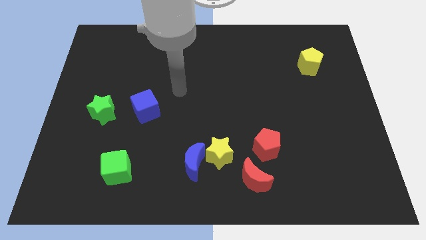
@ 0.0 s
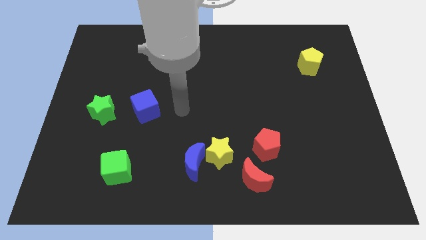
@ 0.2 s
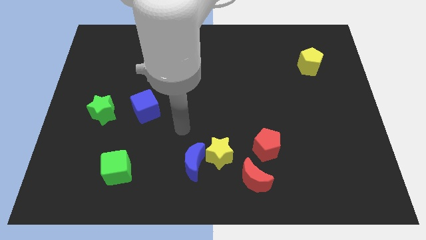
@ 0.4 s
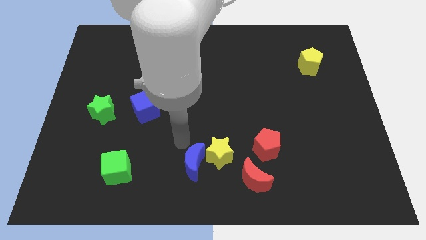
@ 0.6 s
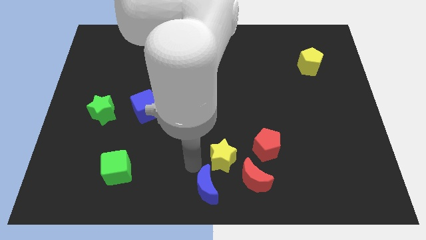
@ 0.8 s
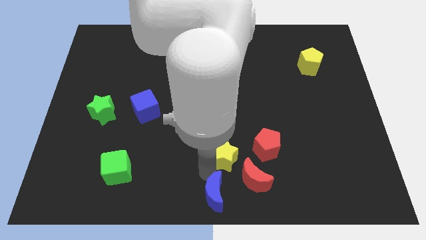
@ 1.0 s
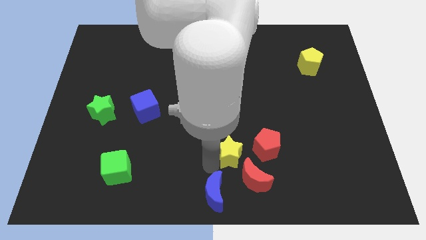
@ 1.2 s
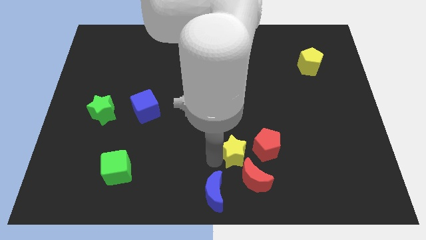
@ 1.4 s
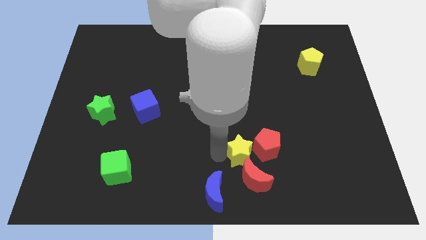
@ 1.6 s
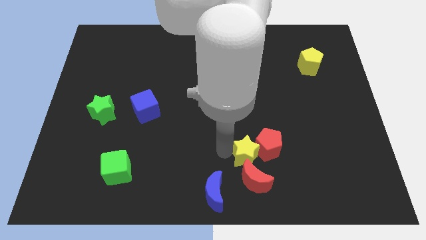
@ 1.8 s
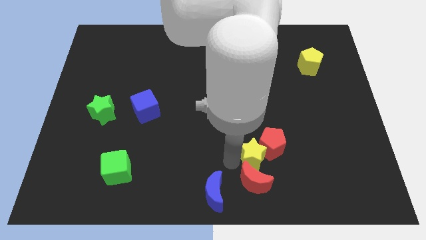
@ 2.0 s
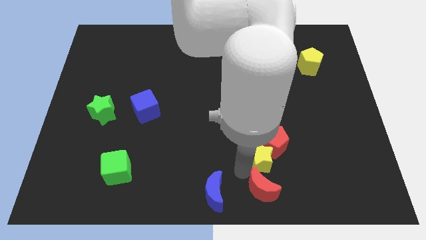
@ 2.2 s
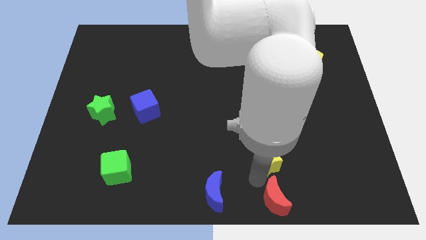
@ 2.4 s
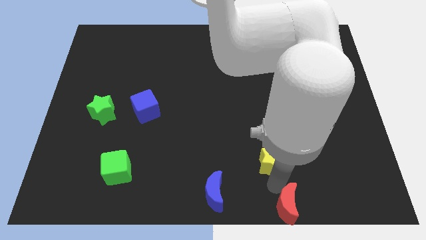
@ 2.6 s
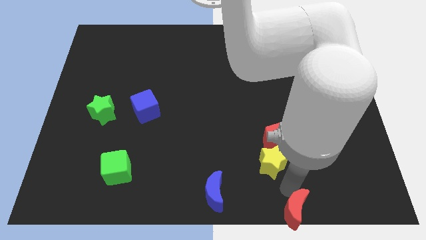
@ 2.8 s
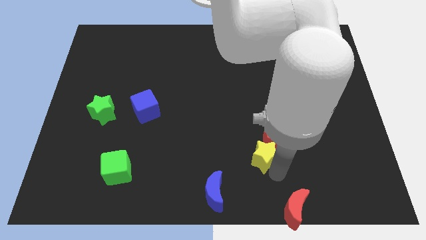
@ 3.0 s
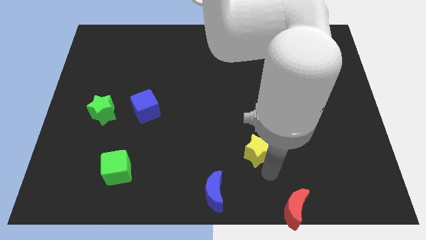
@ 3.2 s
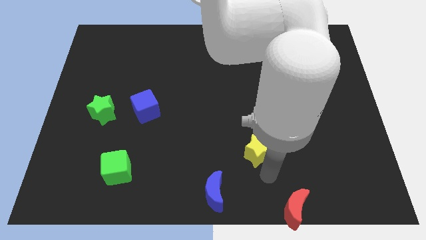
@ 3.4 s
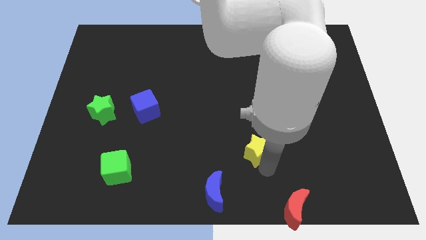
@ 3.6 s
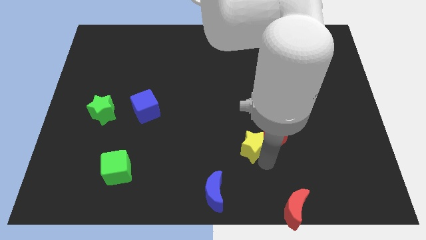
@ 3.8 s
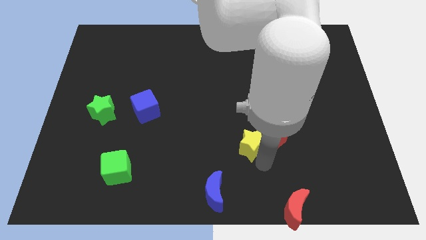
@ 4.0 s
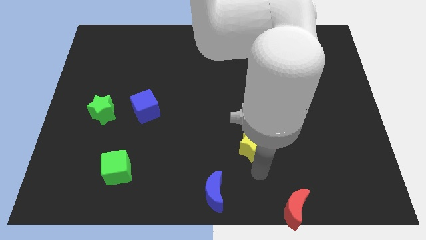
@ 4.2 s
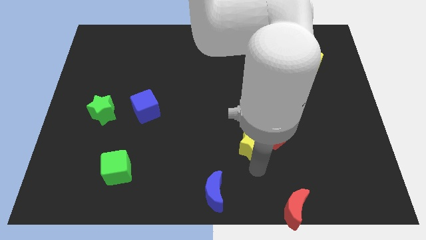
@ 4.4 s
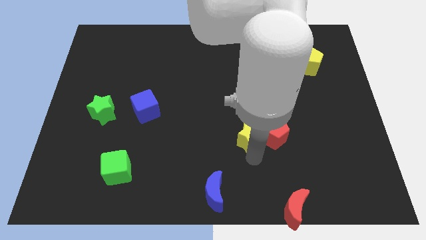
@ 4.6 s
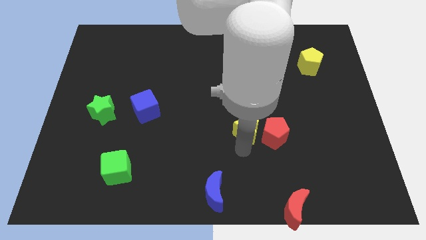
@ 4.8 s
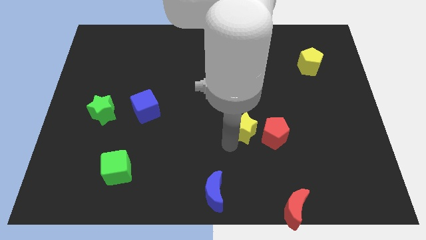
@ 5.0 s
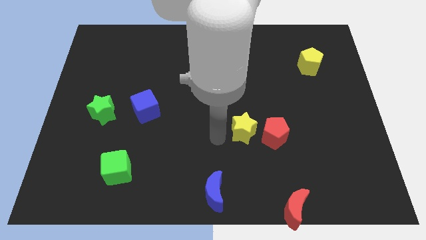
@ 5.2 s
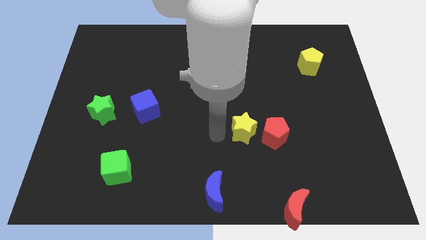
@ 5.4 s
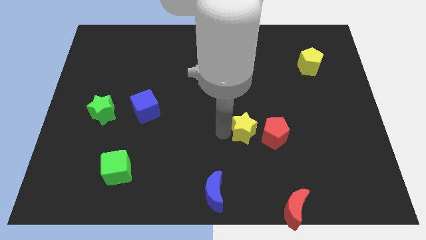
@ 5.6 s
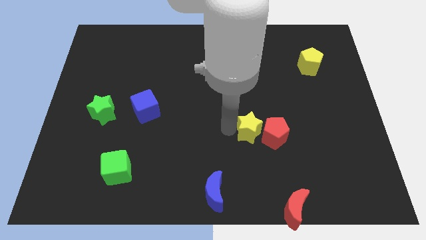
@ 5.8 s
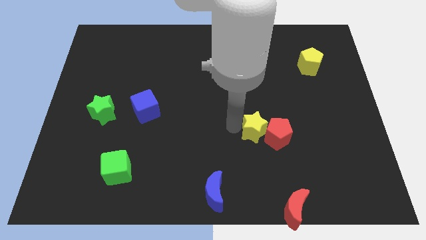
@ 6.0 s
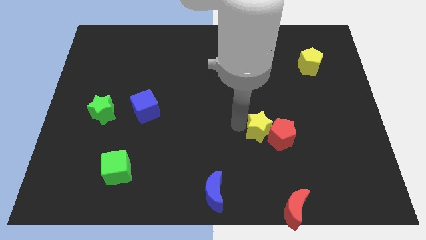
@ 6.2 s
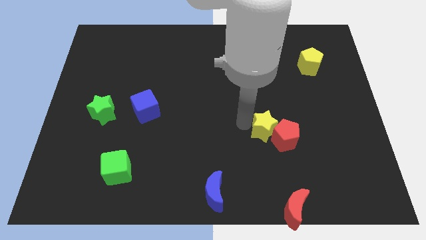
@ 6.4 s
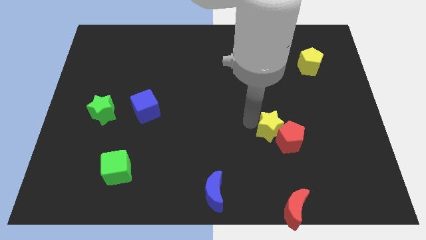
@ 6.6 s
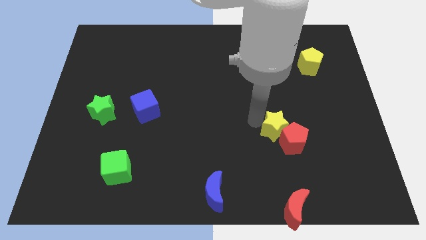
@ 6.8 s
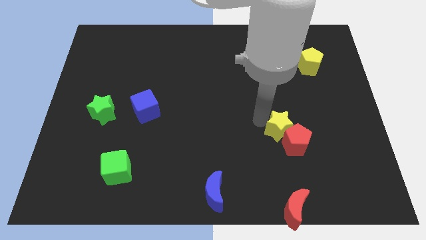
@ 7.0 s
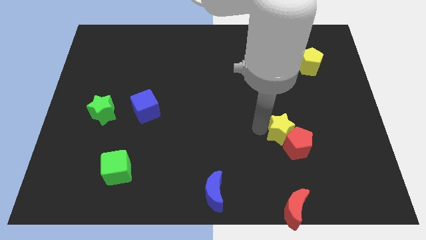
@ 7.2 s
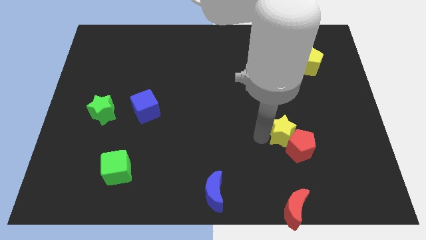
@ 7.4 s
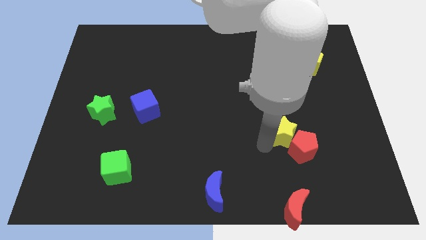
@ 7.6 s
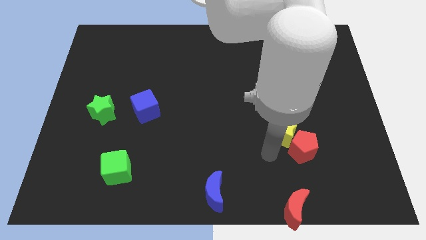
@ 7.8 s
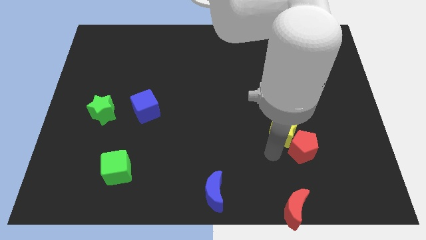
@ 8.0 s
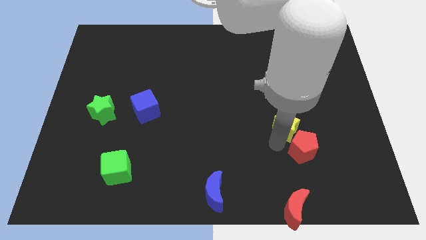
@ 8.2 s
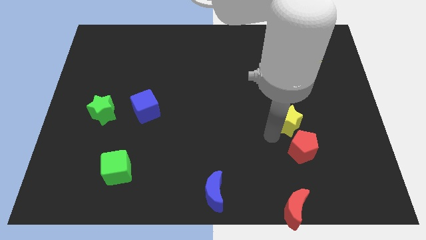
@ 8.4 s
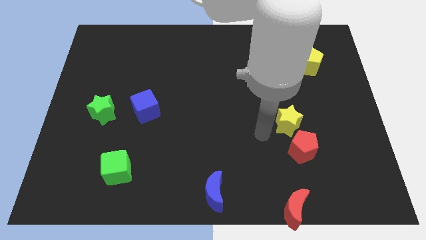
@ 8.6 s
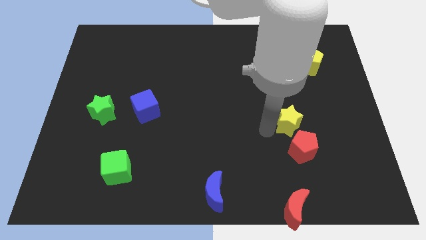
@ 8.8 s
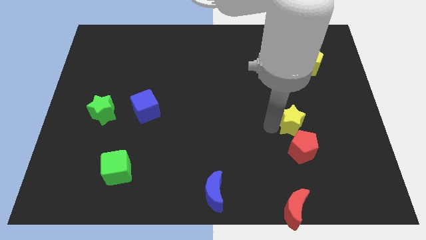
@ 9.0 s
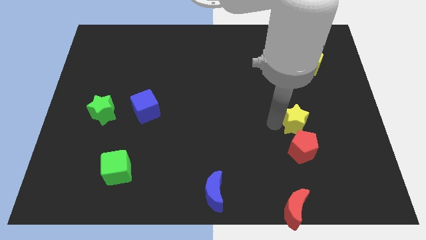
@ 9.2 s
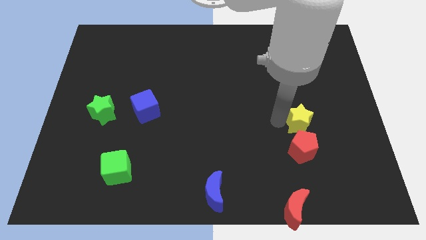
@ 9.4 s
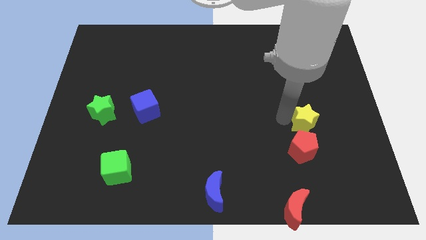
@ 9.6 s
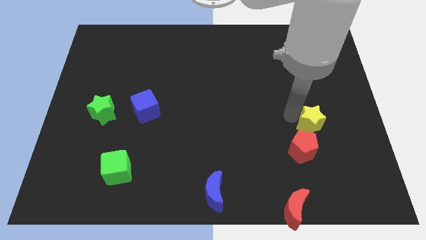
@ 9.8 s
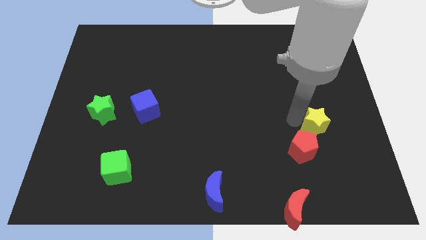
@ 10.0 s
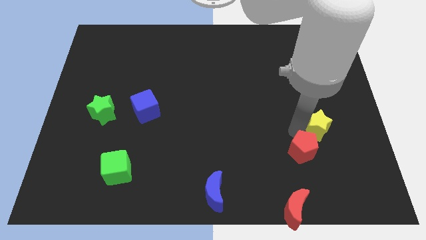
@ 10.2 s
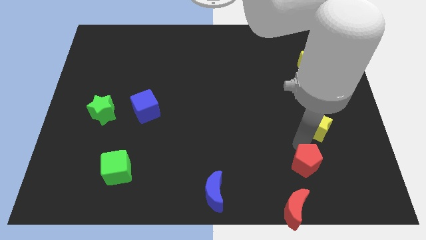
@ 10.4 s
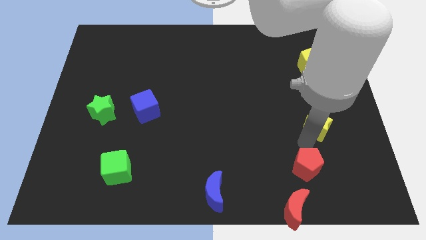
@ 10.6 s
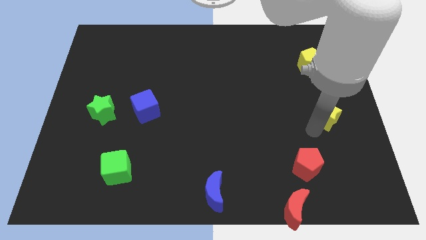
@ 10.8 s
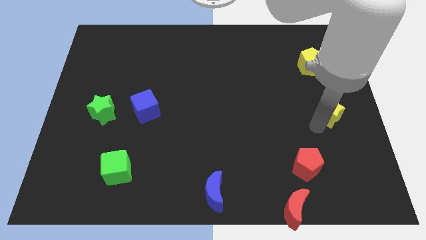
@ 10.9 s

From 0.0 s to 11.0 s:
move the yellow star to the center right
